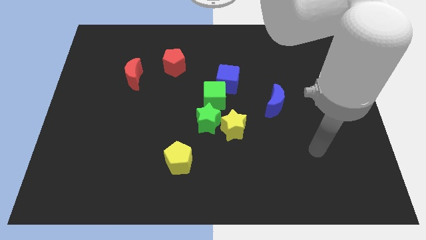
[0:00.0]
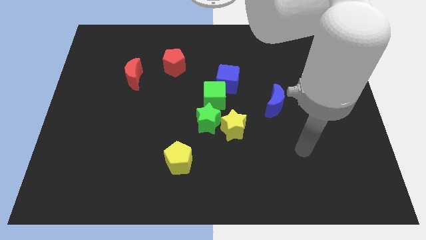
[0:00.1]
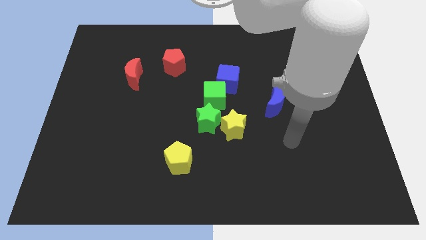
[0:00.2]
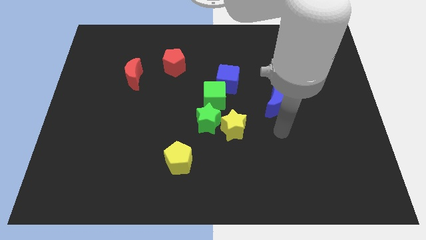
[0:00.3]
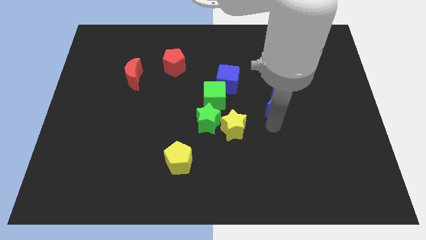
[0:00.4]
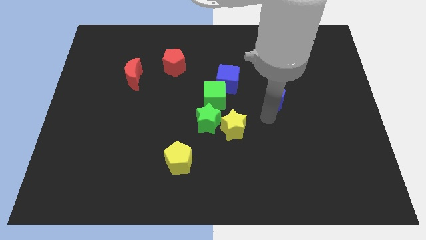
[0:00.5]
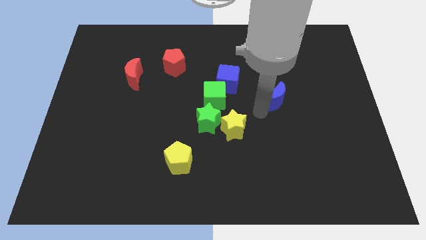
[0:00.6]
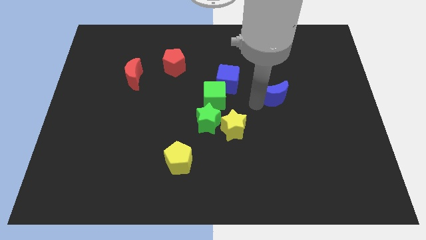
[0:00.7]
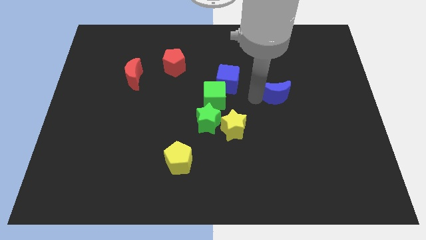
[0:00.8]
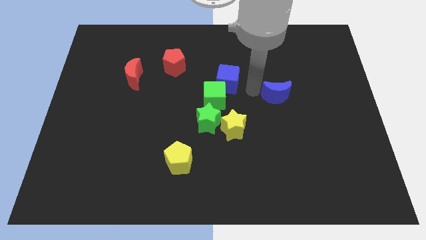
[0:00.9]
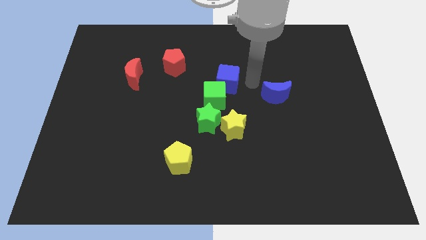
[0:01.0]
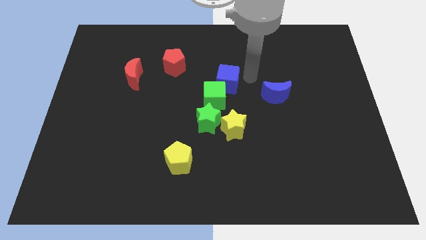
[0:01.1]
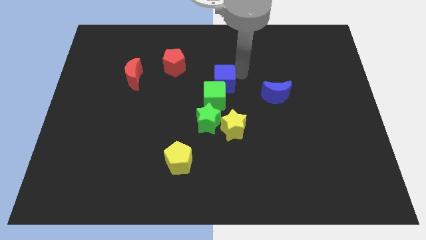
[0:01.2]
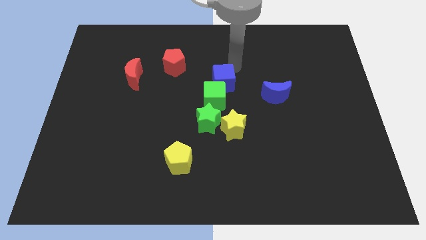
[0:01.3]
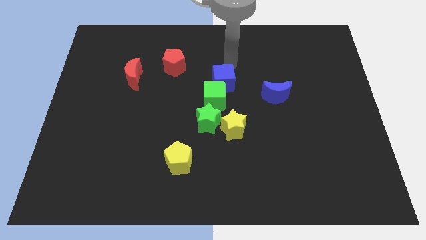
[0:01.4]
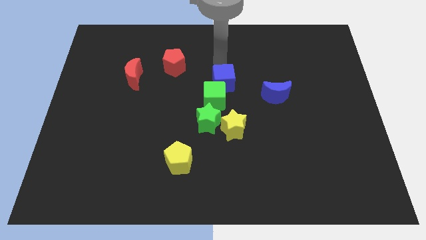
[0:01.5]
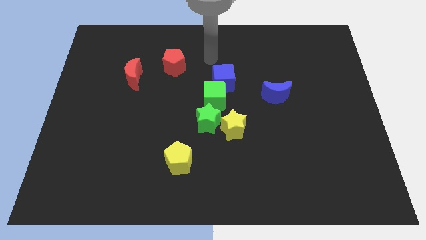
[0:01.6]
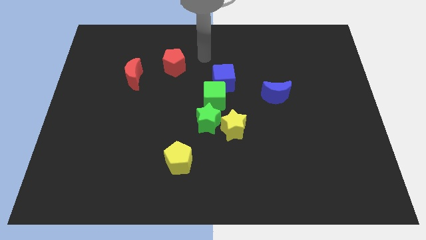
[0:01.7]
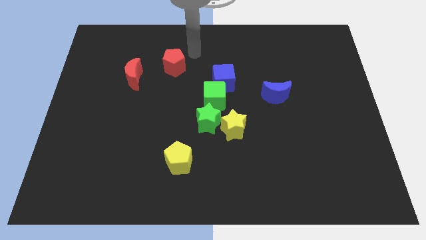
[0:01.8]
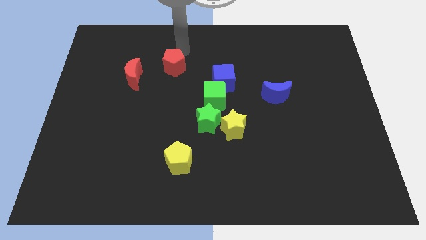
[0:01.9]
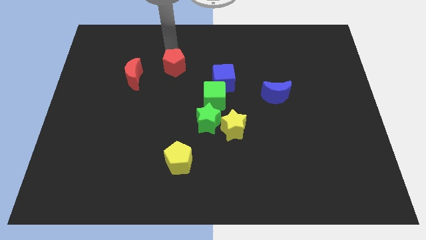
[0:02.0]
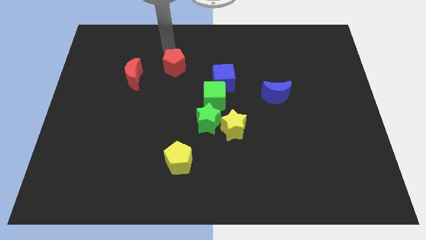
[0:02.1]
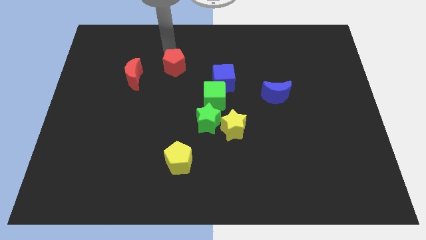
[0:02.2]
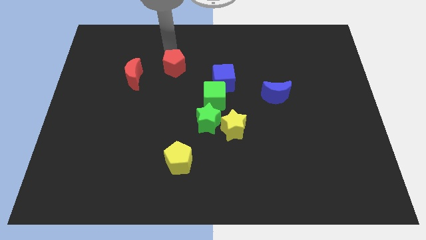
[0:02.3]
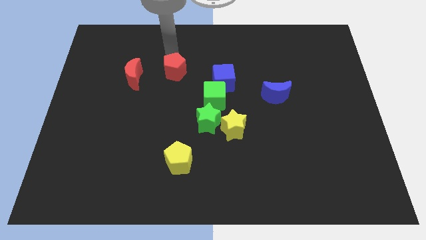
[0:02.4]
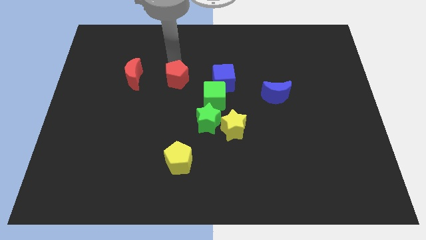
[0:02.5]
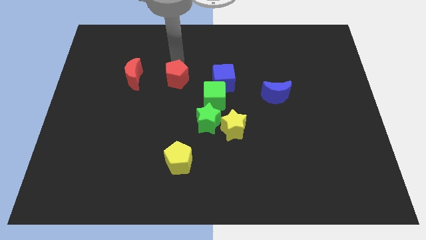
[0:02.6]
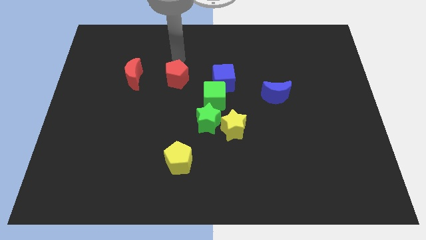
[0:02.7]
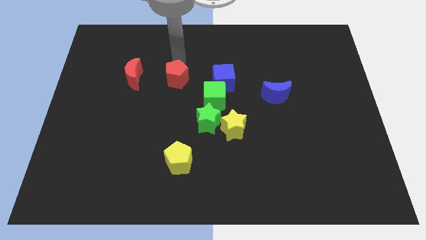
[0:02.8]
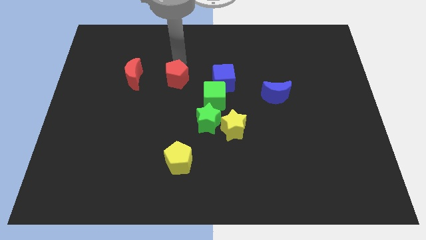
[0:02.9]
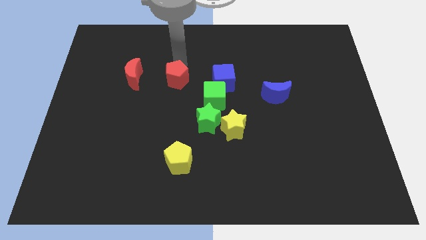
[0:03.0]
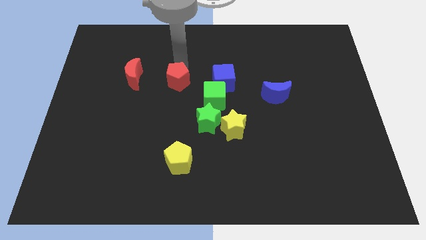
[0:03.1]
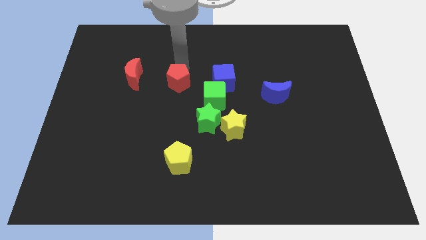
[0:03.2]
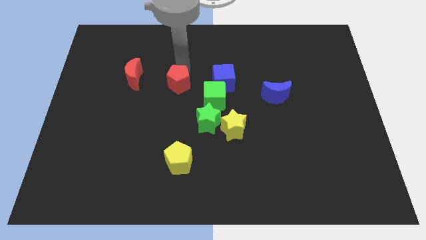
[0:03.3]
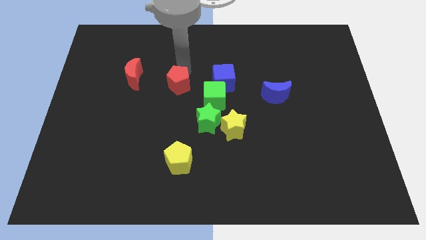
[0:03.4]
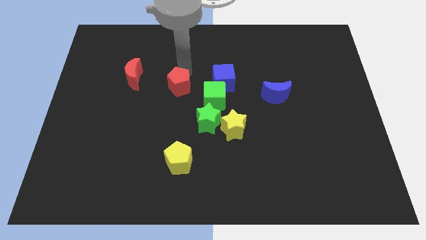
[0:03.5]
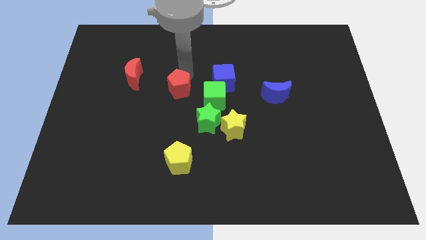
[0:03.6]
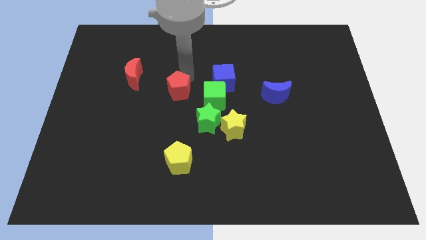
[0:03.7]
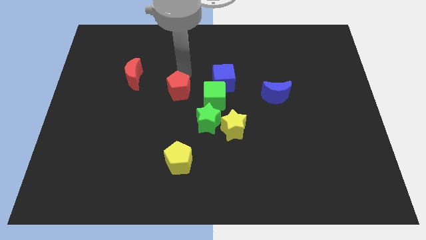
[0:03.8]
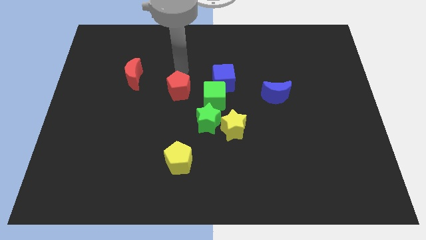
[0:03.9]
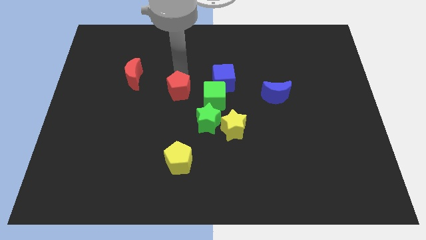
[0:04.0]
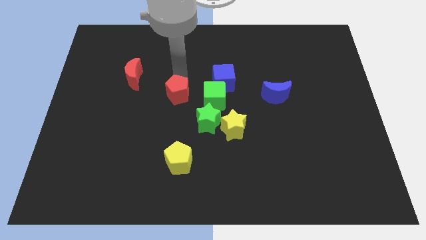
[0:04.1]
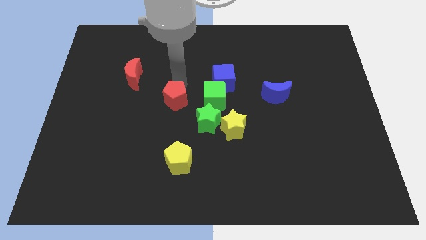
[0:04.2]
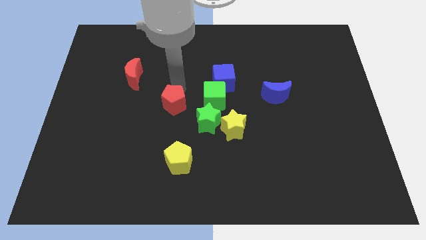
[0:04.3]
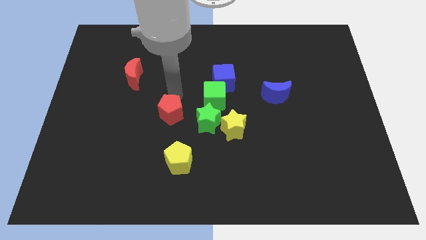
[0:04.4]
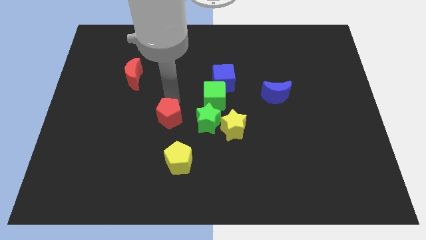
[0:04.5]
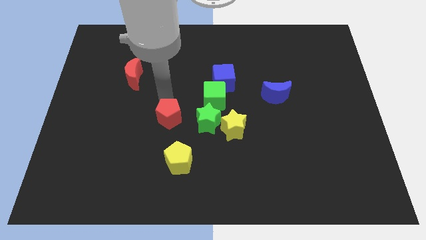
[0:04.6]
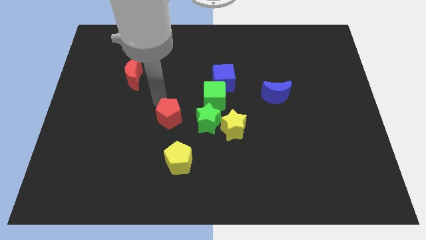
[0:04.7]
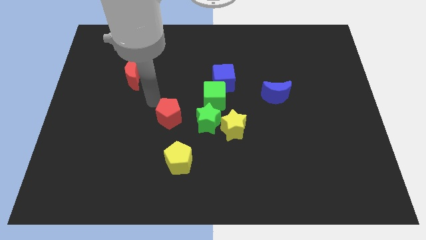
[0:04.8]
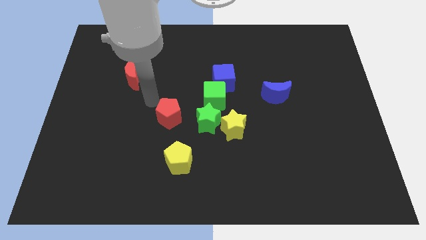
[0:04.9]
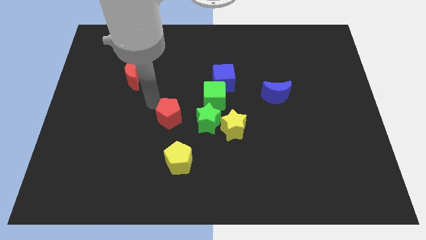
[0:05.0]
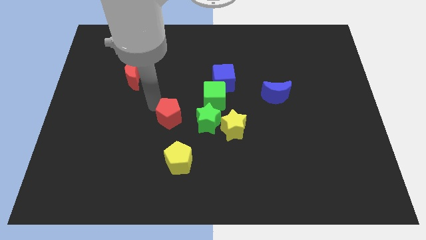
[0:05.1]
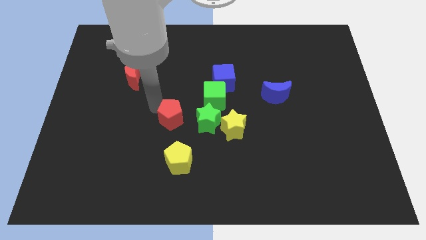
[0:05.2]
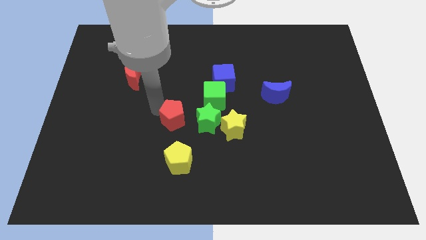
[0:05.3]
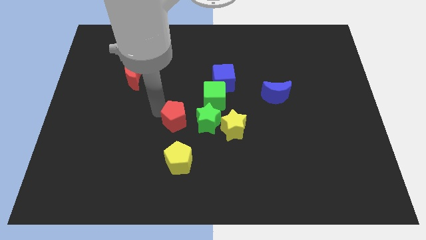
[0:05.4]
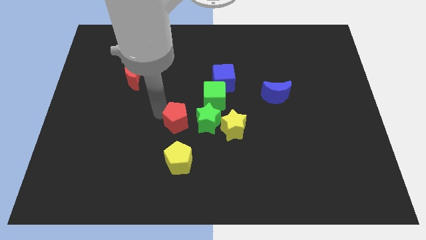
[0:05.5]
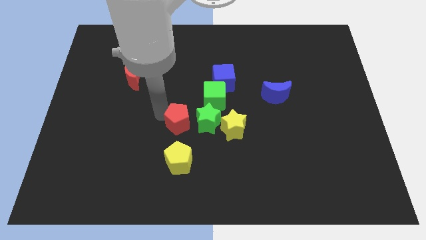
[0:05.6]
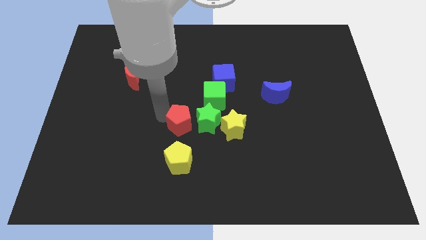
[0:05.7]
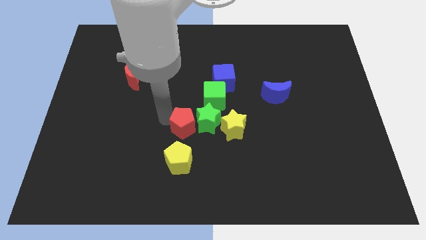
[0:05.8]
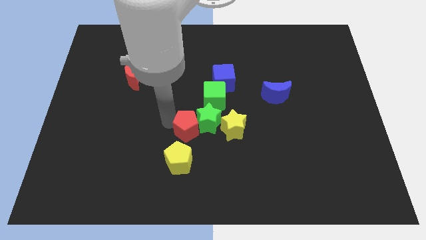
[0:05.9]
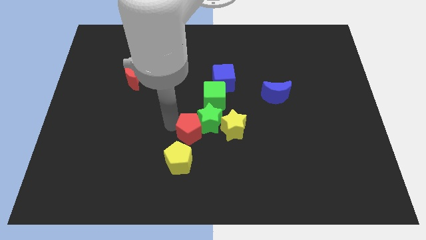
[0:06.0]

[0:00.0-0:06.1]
slide the red pentagon to the bottom of the green star

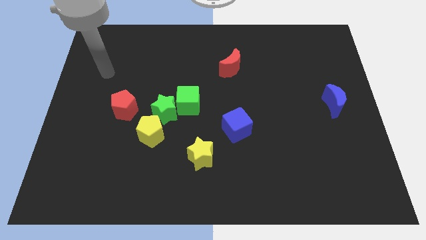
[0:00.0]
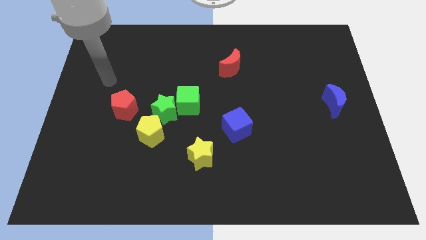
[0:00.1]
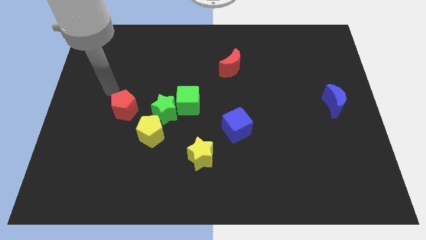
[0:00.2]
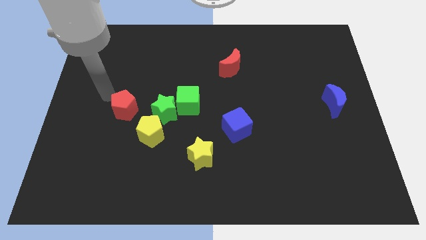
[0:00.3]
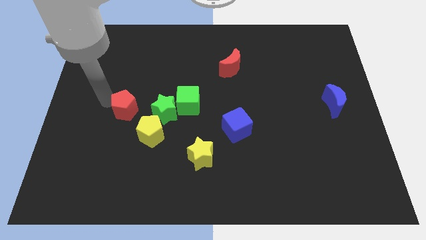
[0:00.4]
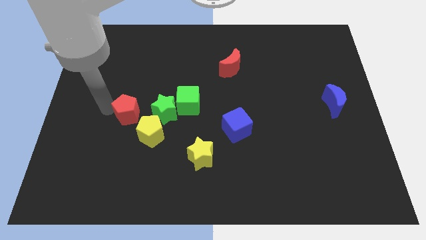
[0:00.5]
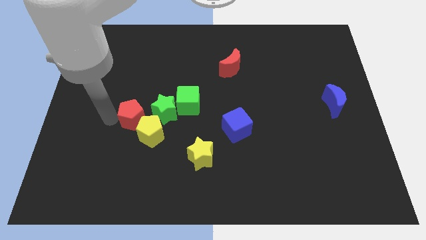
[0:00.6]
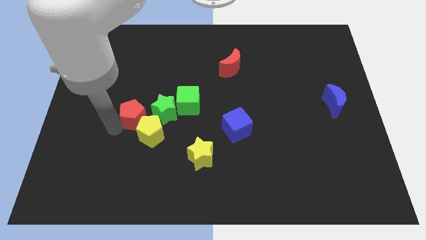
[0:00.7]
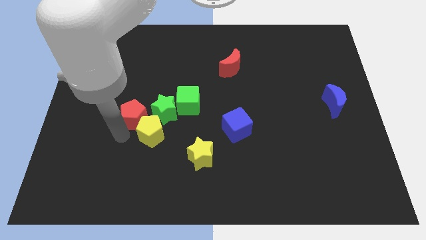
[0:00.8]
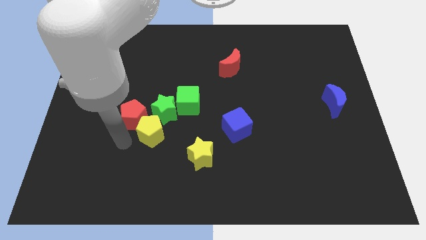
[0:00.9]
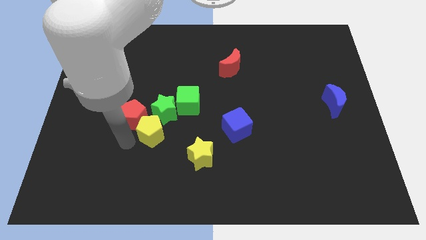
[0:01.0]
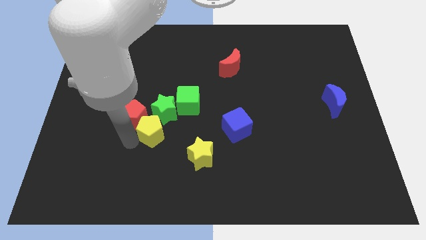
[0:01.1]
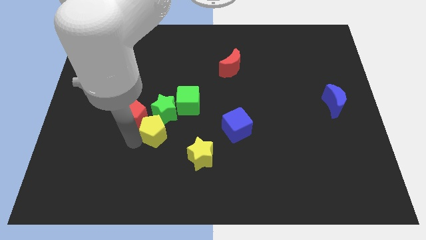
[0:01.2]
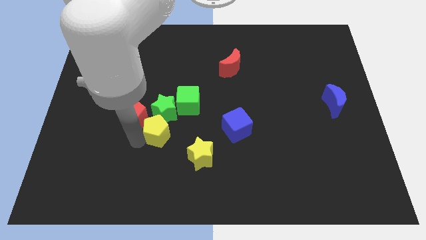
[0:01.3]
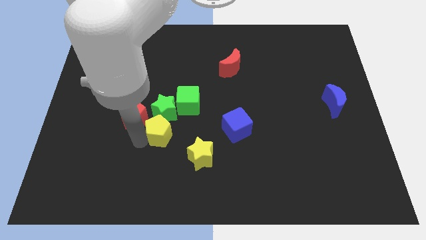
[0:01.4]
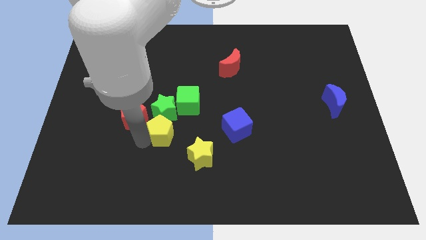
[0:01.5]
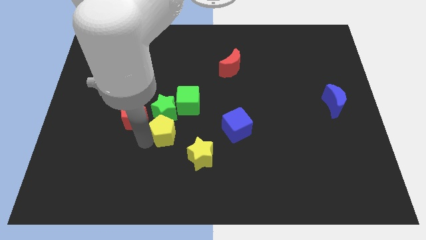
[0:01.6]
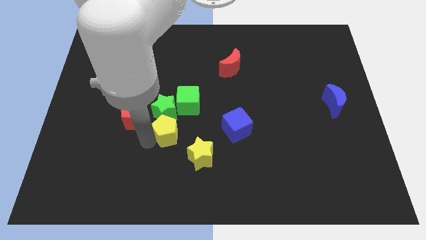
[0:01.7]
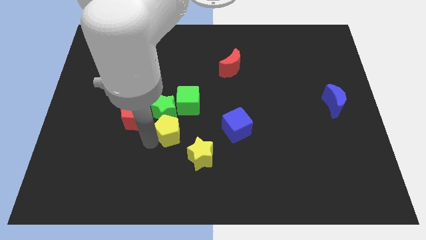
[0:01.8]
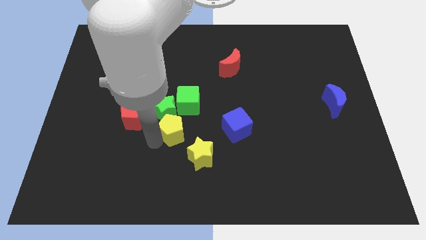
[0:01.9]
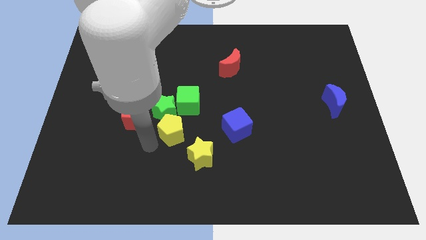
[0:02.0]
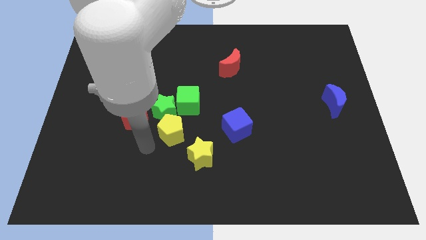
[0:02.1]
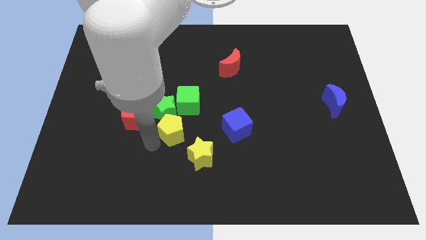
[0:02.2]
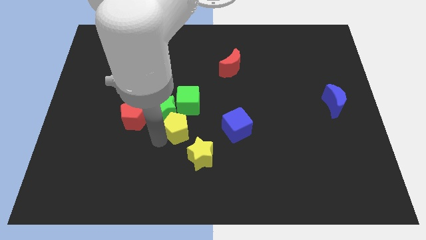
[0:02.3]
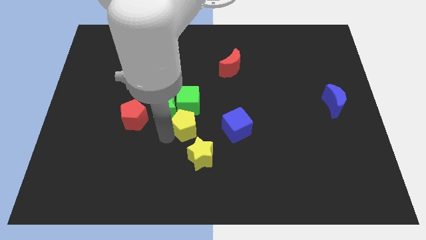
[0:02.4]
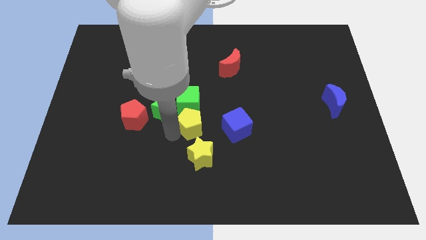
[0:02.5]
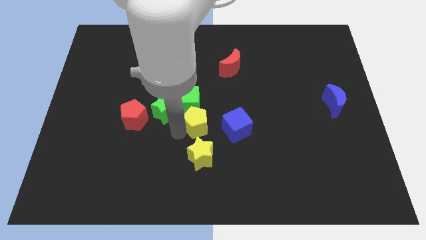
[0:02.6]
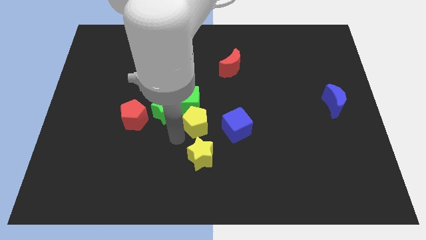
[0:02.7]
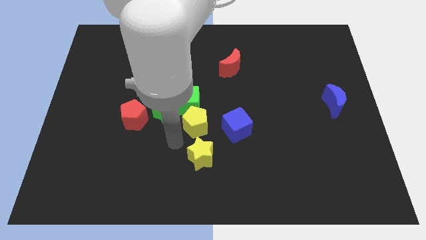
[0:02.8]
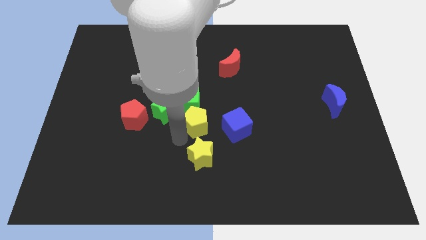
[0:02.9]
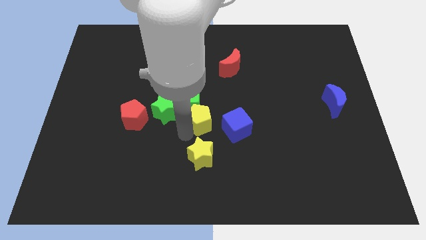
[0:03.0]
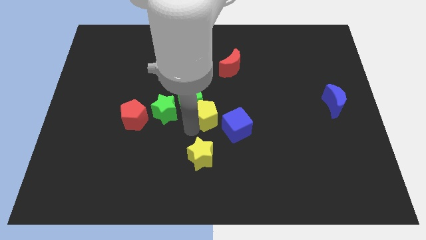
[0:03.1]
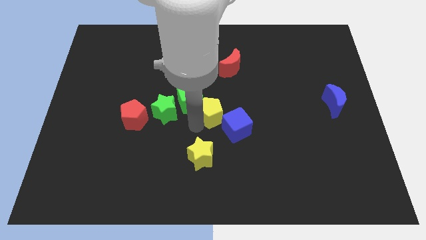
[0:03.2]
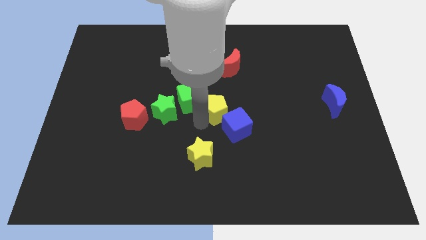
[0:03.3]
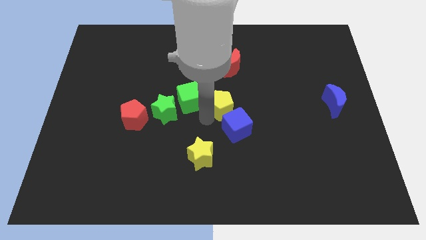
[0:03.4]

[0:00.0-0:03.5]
put the yellow pentagon to the bottom of the red moon
